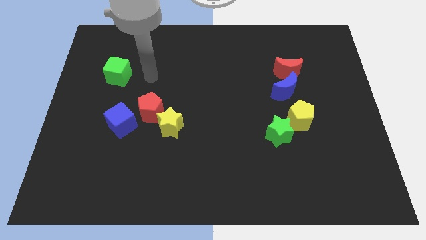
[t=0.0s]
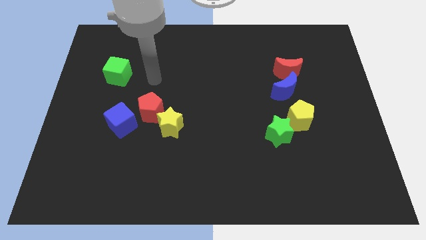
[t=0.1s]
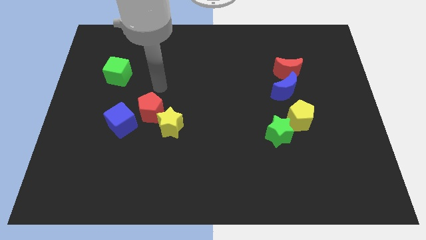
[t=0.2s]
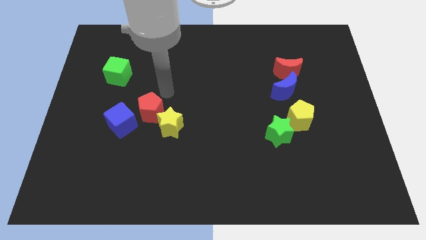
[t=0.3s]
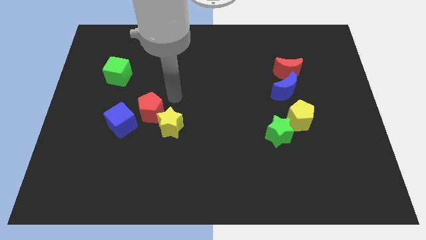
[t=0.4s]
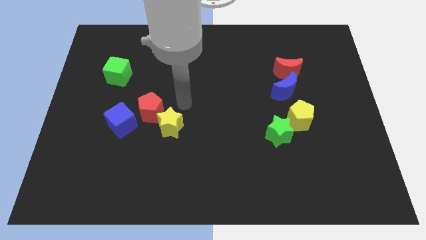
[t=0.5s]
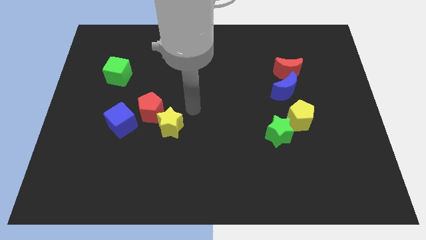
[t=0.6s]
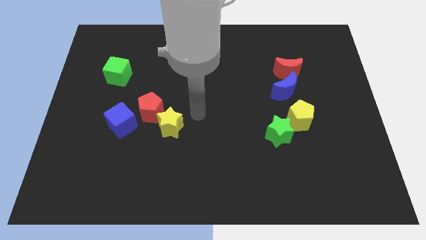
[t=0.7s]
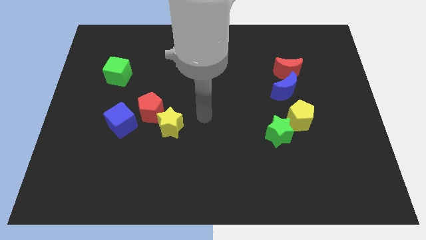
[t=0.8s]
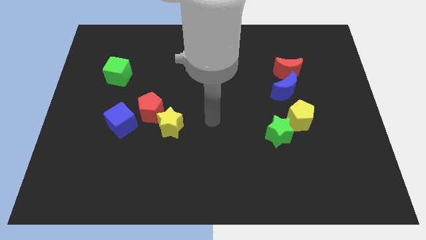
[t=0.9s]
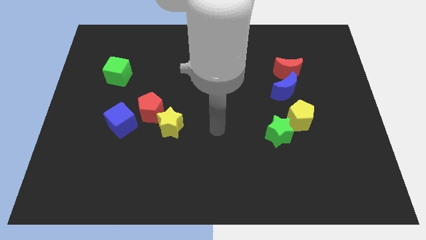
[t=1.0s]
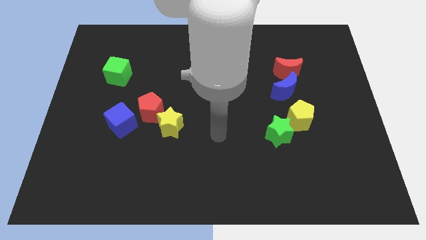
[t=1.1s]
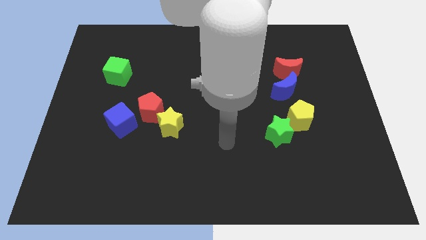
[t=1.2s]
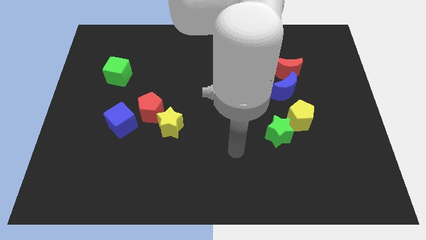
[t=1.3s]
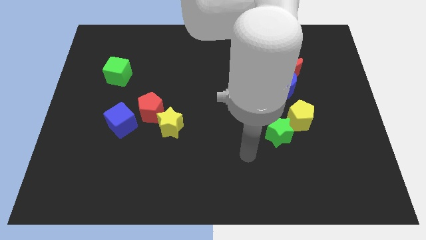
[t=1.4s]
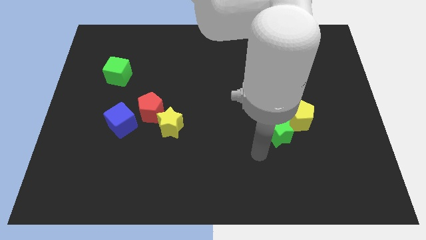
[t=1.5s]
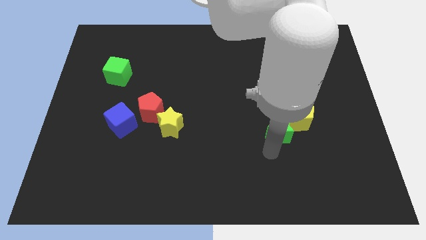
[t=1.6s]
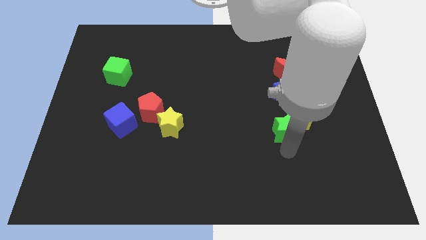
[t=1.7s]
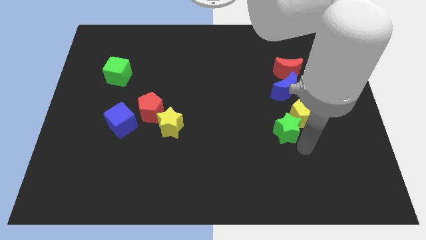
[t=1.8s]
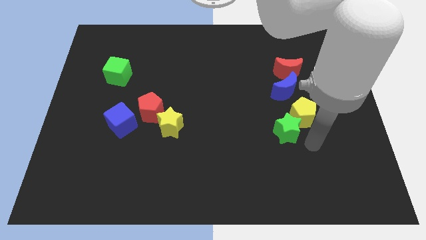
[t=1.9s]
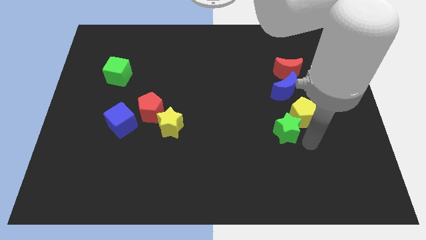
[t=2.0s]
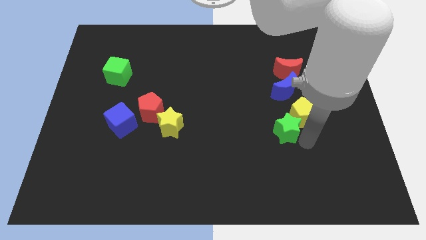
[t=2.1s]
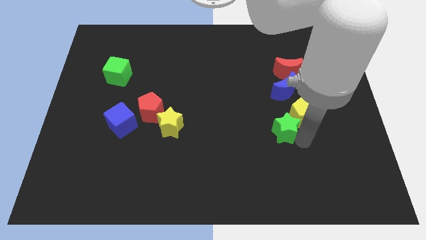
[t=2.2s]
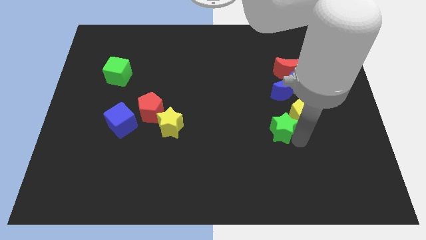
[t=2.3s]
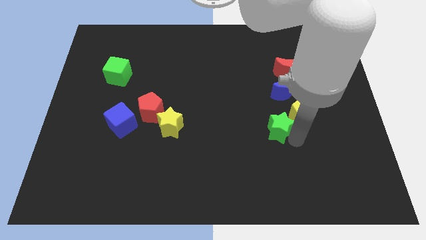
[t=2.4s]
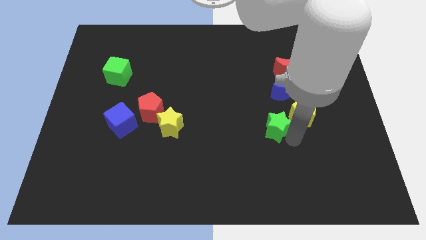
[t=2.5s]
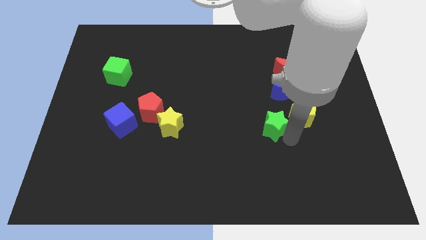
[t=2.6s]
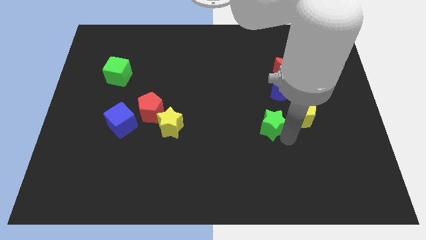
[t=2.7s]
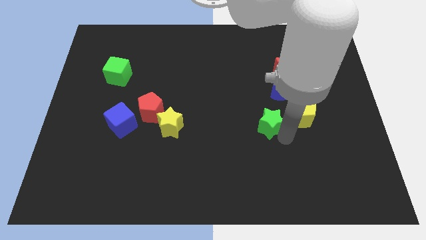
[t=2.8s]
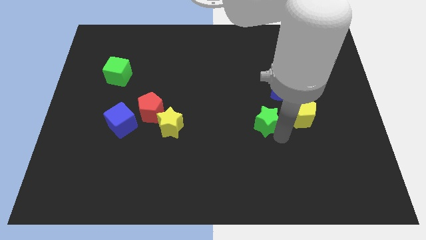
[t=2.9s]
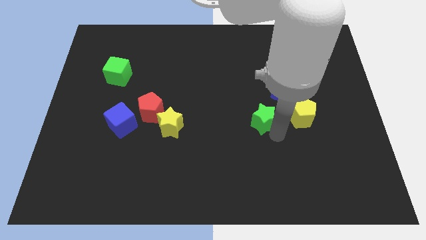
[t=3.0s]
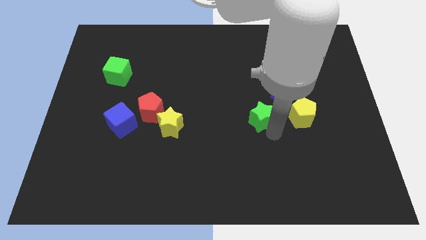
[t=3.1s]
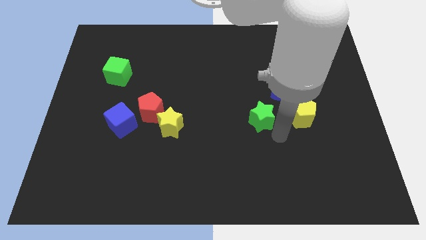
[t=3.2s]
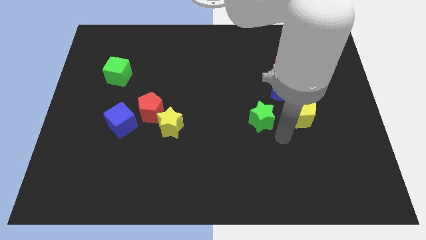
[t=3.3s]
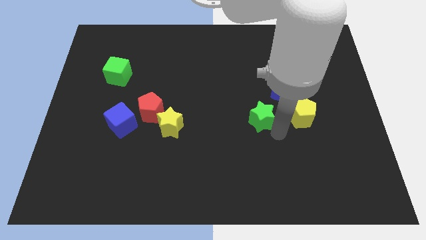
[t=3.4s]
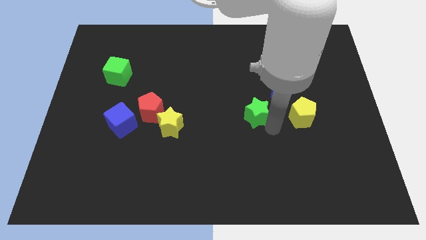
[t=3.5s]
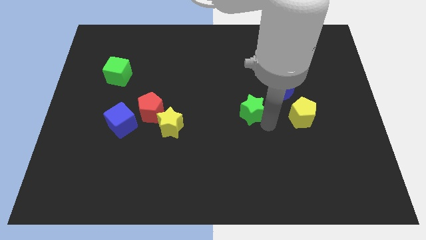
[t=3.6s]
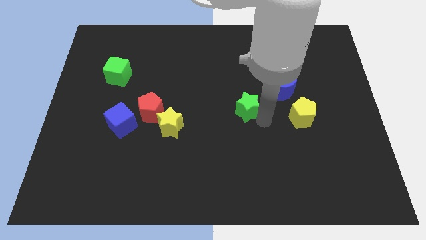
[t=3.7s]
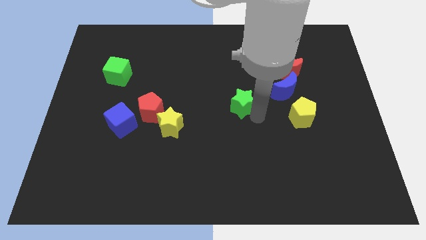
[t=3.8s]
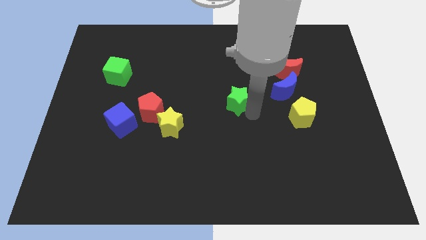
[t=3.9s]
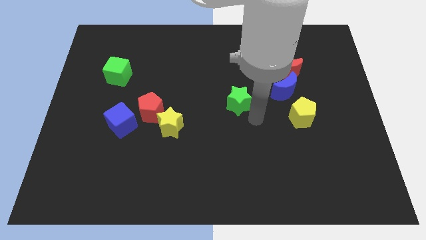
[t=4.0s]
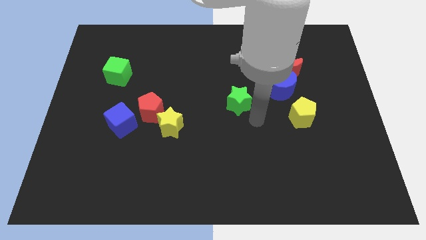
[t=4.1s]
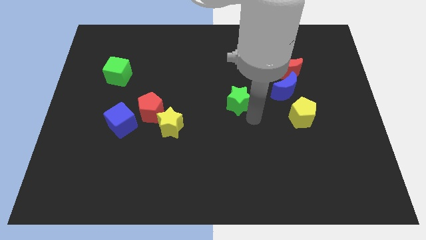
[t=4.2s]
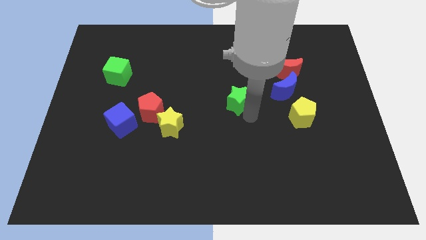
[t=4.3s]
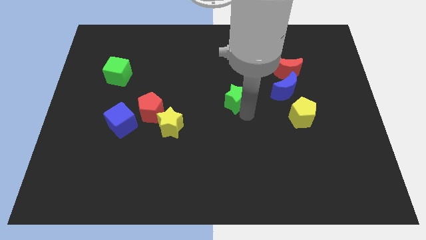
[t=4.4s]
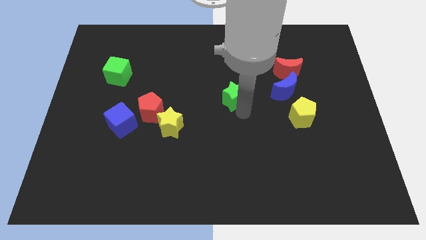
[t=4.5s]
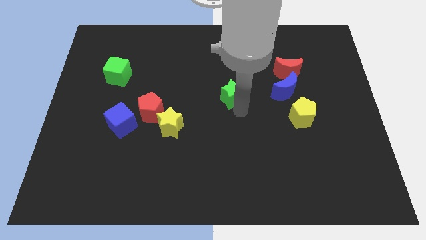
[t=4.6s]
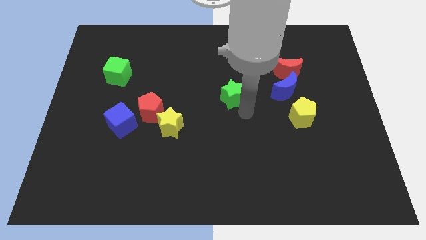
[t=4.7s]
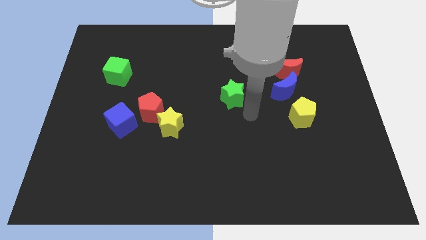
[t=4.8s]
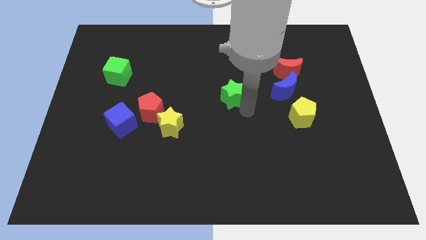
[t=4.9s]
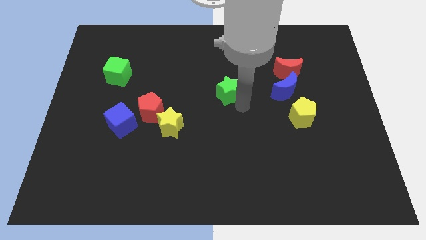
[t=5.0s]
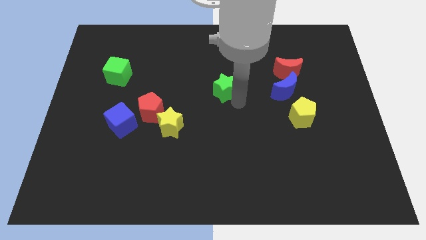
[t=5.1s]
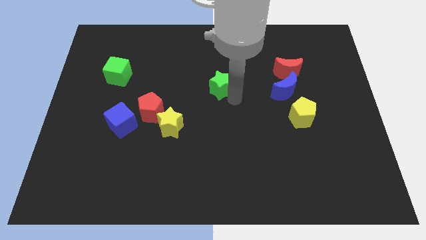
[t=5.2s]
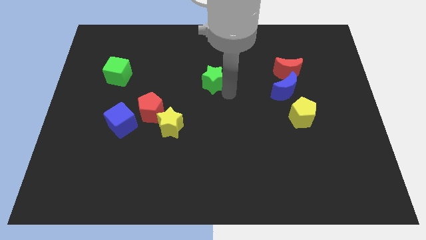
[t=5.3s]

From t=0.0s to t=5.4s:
push the green star upwards and left

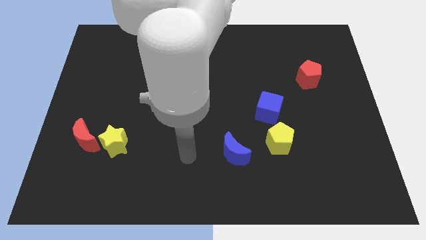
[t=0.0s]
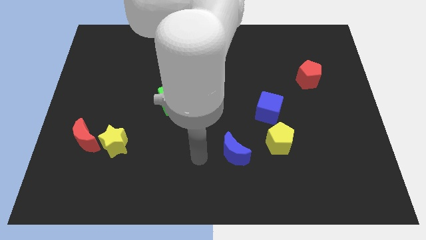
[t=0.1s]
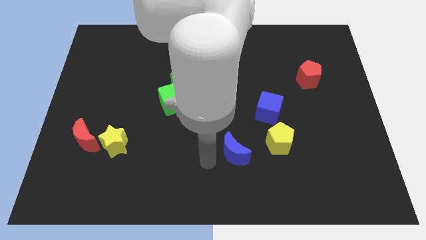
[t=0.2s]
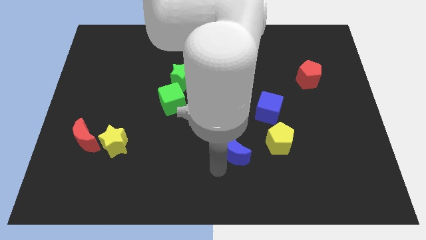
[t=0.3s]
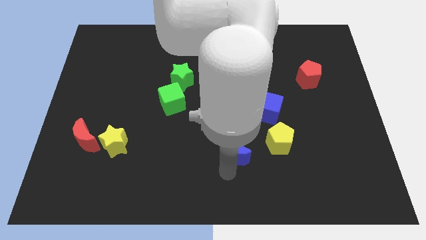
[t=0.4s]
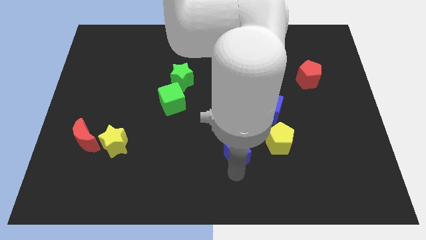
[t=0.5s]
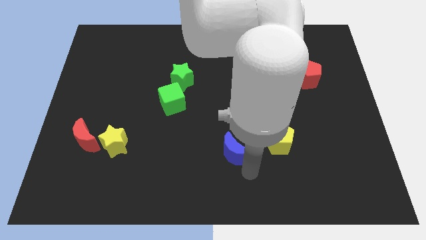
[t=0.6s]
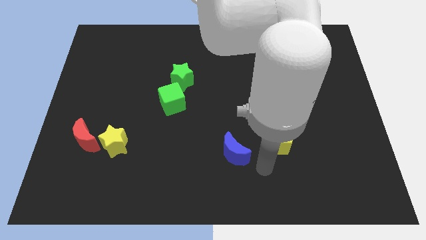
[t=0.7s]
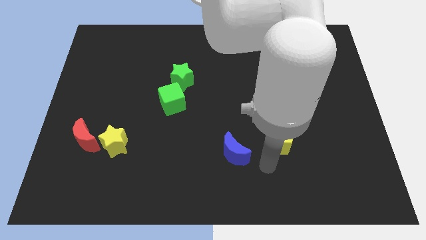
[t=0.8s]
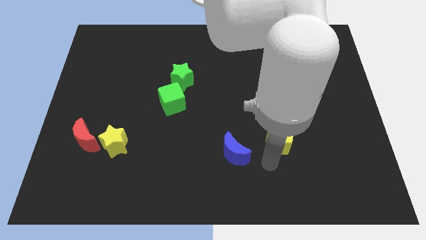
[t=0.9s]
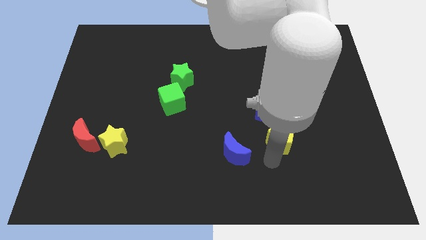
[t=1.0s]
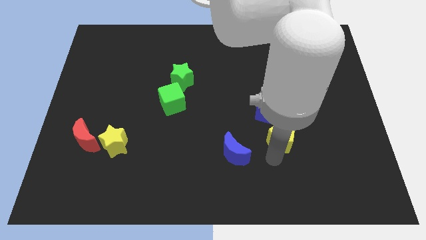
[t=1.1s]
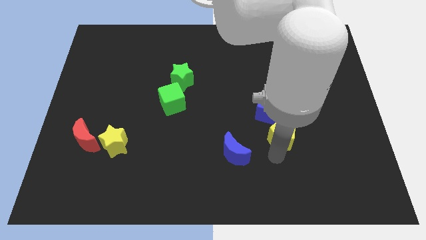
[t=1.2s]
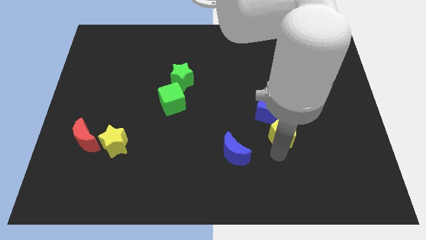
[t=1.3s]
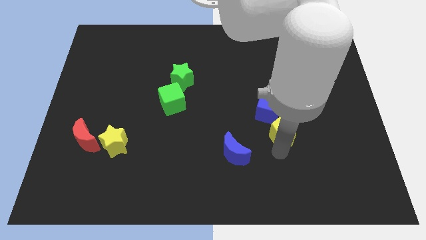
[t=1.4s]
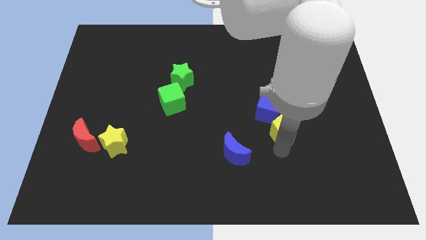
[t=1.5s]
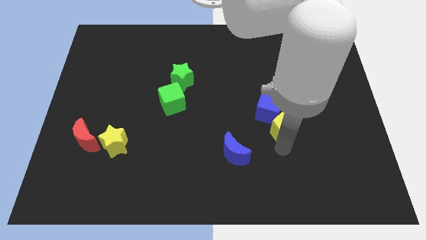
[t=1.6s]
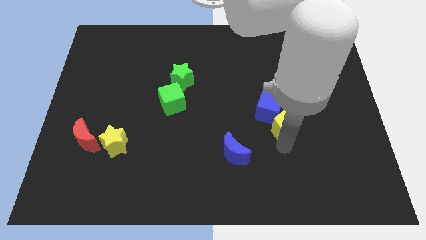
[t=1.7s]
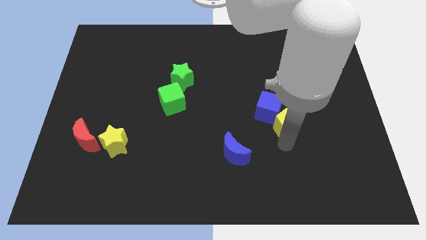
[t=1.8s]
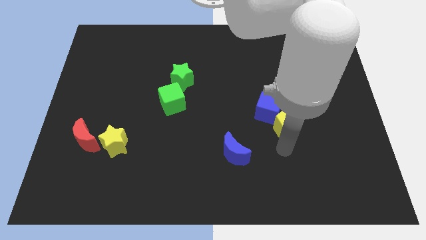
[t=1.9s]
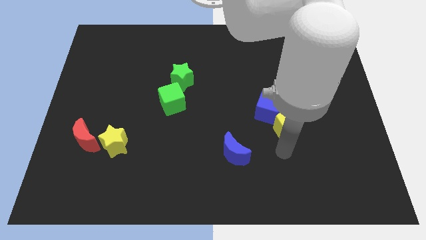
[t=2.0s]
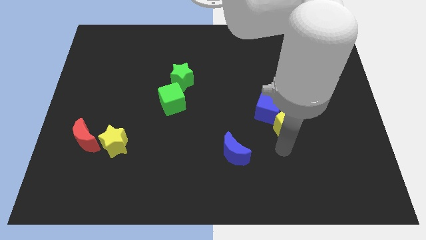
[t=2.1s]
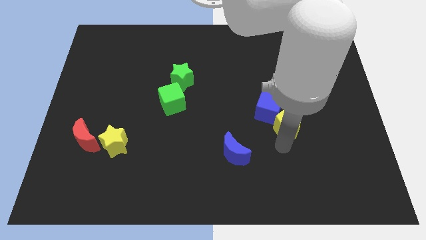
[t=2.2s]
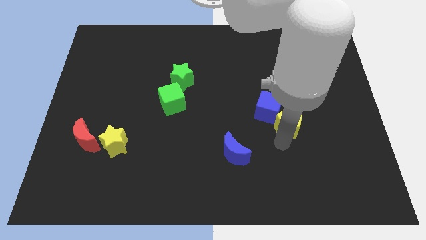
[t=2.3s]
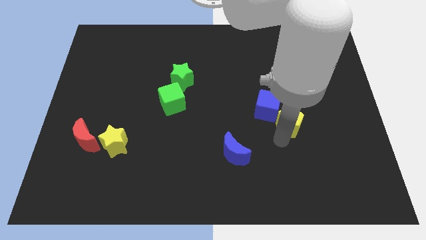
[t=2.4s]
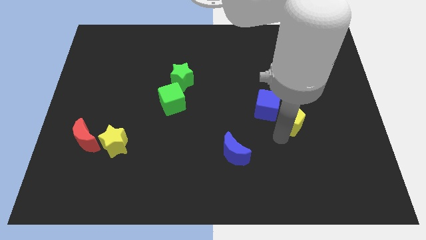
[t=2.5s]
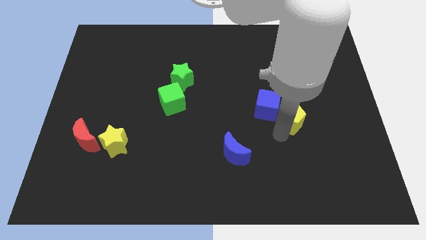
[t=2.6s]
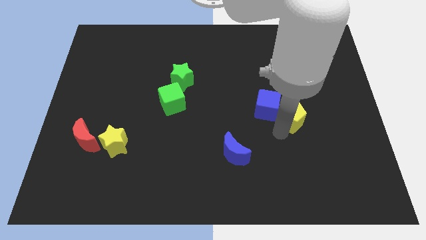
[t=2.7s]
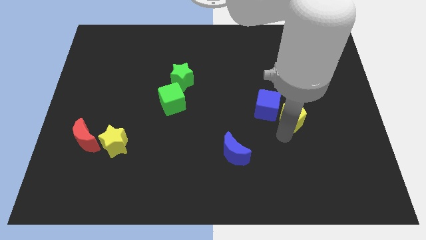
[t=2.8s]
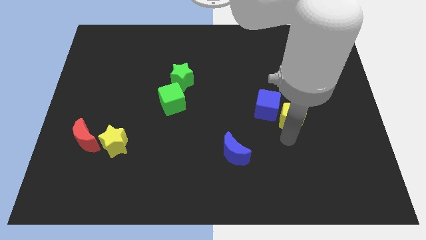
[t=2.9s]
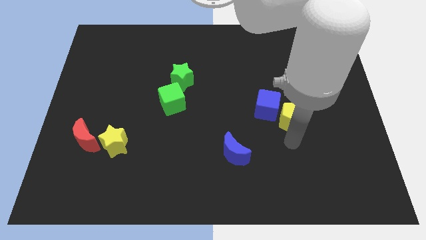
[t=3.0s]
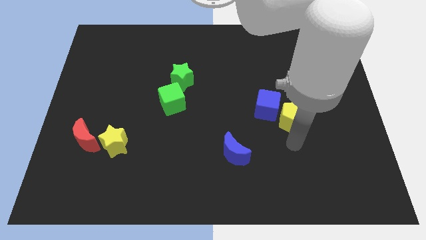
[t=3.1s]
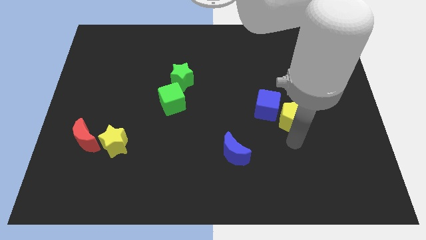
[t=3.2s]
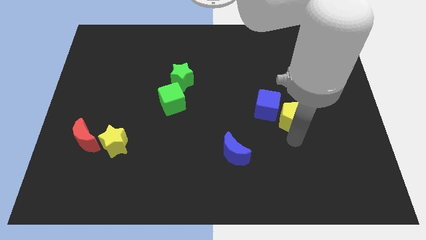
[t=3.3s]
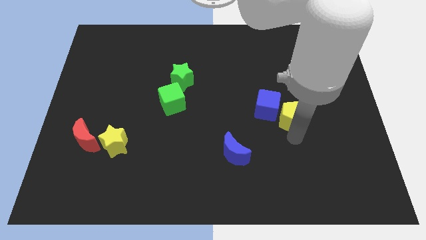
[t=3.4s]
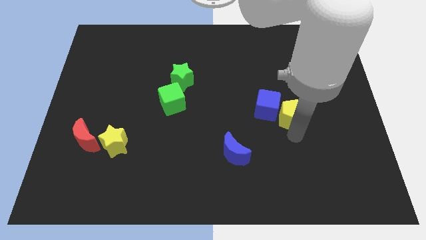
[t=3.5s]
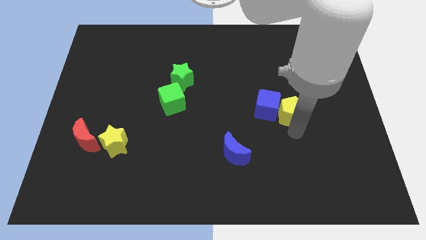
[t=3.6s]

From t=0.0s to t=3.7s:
move the yellow pentagon upwards somewhat
